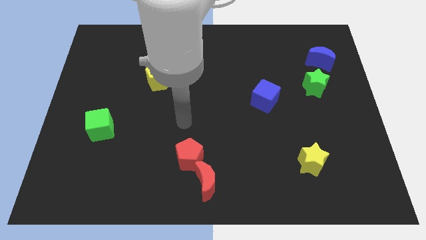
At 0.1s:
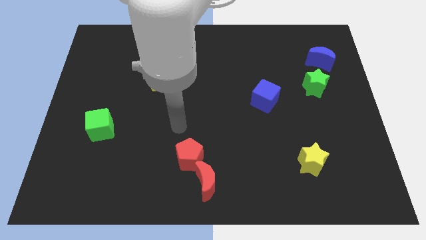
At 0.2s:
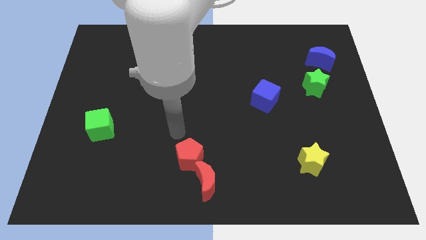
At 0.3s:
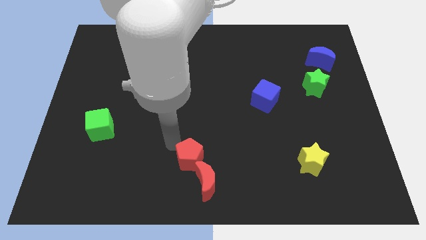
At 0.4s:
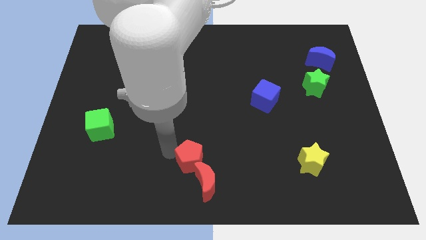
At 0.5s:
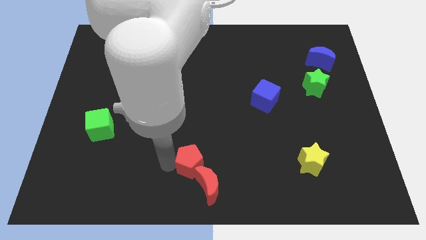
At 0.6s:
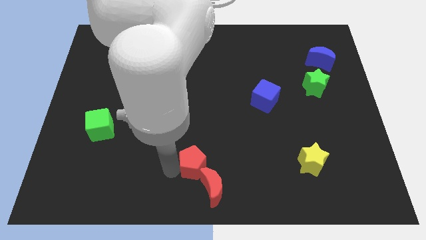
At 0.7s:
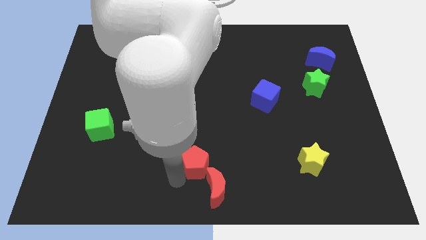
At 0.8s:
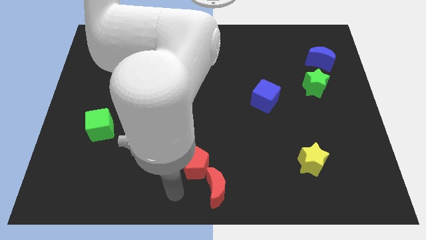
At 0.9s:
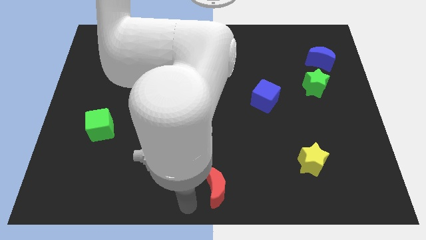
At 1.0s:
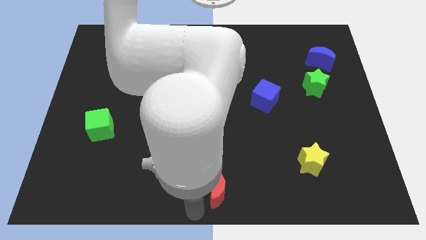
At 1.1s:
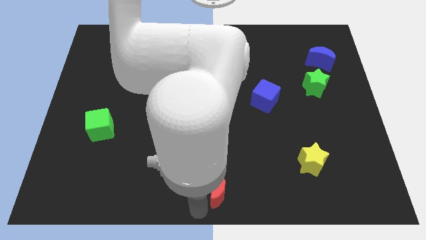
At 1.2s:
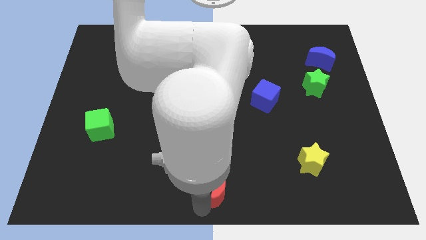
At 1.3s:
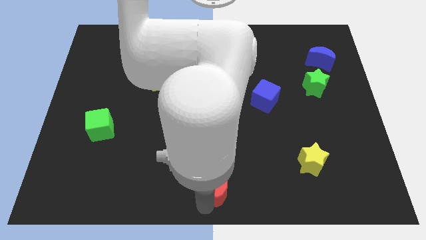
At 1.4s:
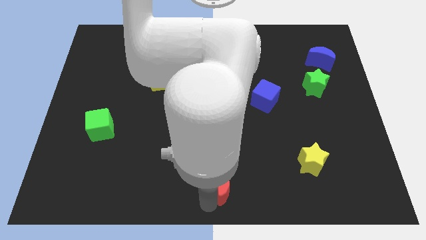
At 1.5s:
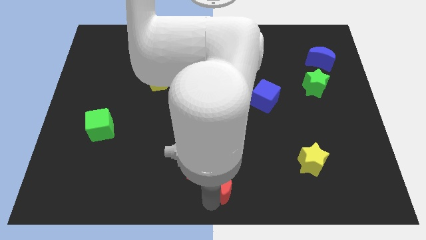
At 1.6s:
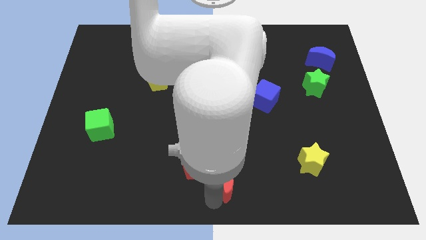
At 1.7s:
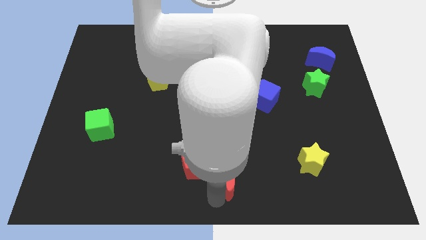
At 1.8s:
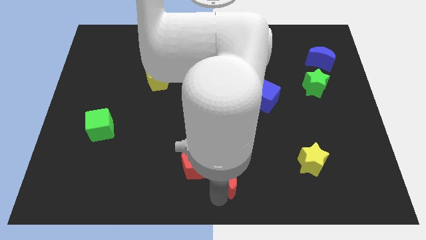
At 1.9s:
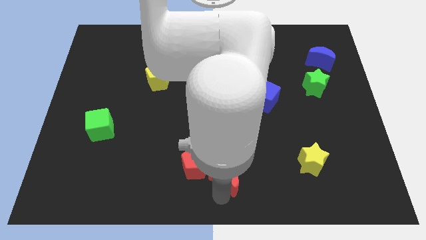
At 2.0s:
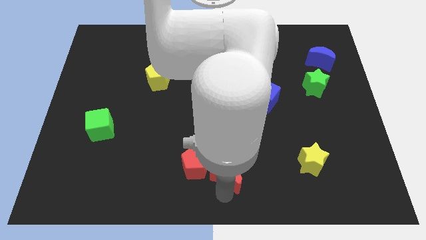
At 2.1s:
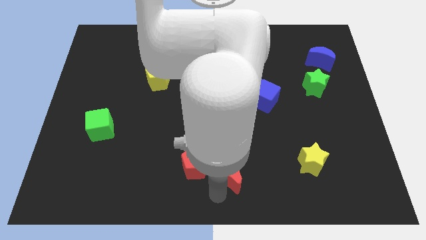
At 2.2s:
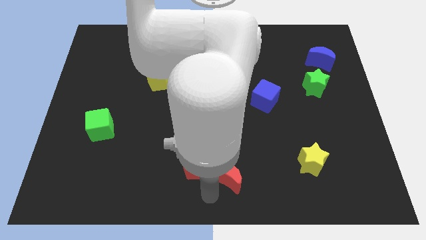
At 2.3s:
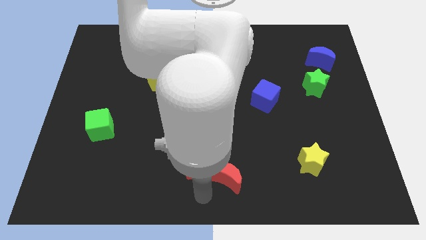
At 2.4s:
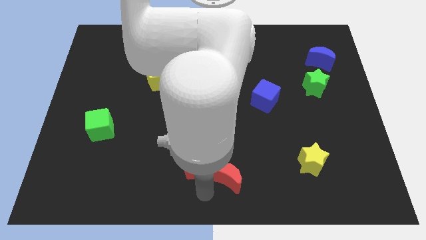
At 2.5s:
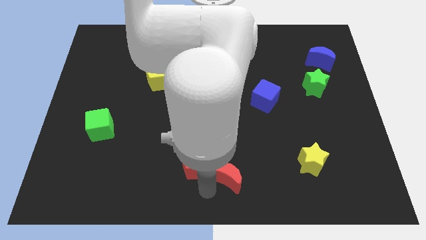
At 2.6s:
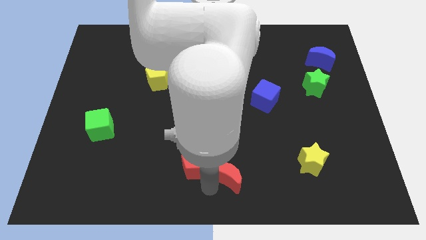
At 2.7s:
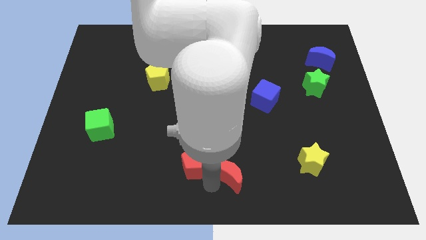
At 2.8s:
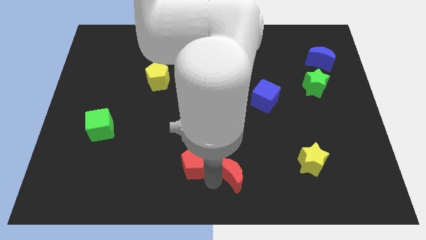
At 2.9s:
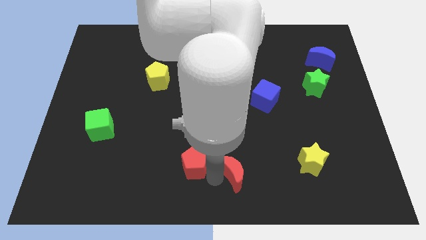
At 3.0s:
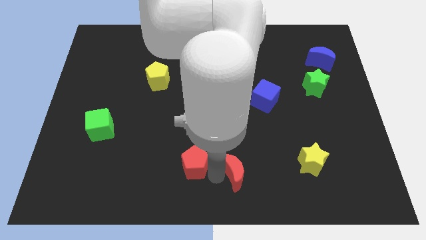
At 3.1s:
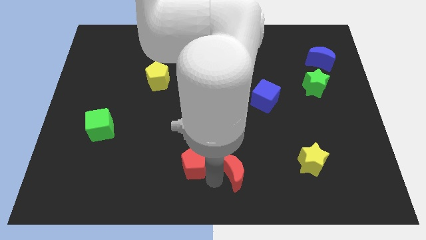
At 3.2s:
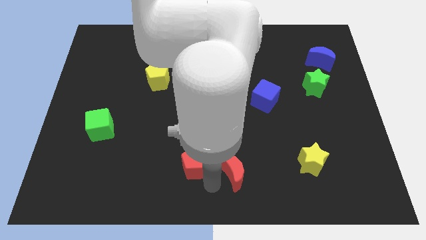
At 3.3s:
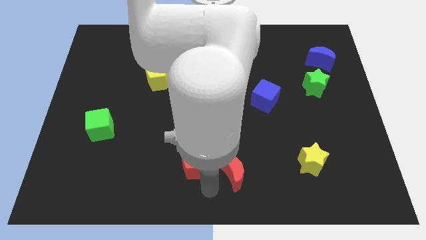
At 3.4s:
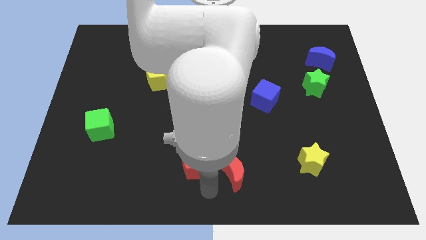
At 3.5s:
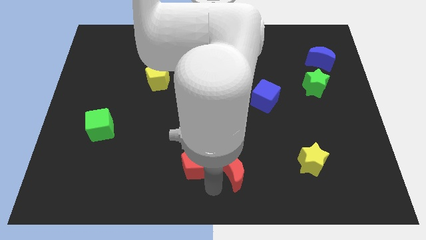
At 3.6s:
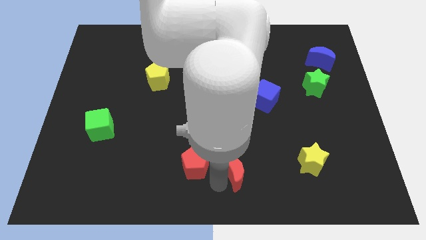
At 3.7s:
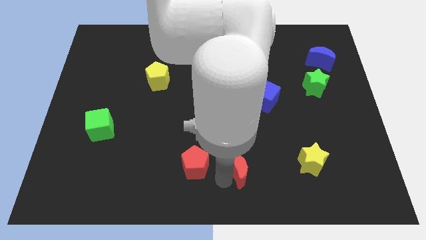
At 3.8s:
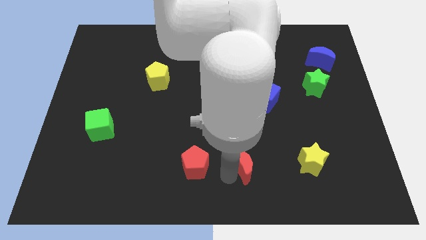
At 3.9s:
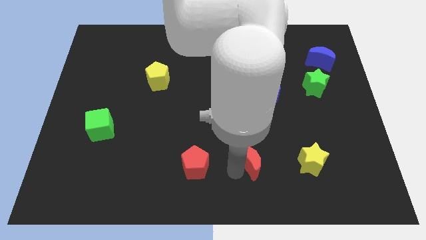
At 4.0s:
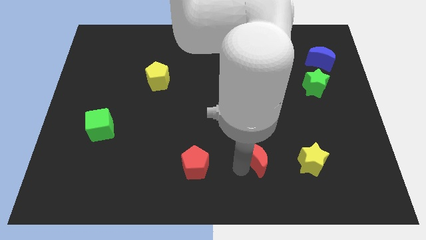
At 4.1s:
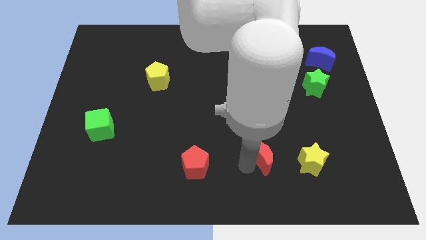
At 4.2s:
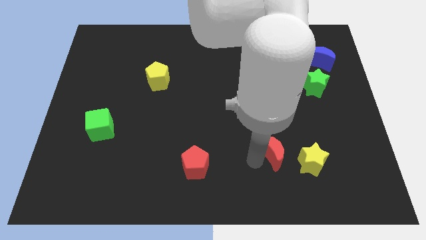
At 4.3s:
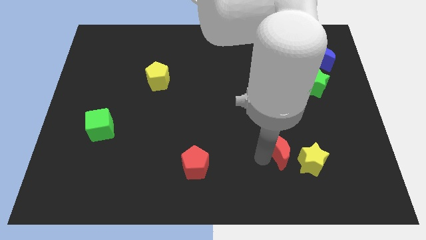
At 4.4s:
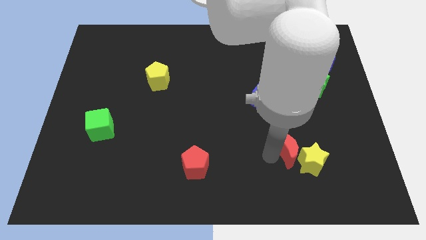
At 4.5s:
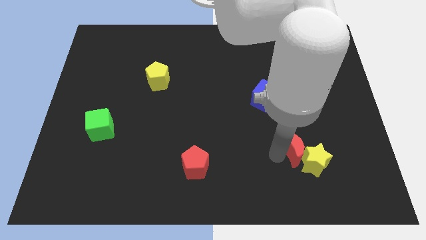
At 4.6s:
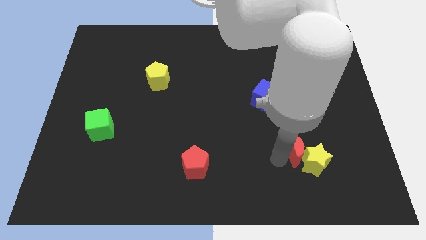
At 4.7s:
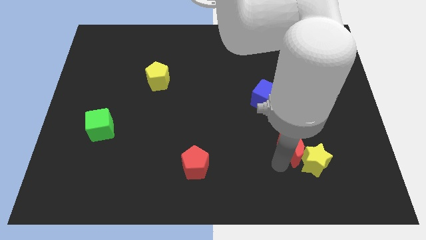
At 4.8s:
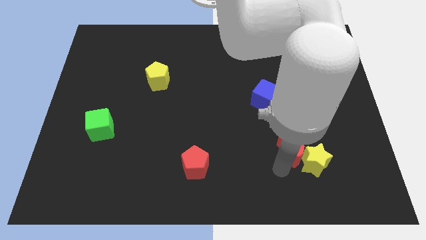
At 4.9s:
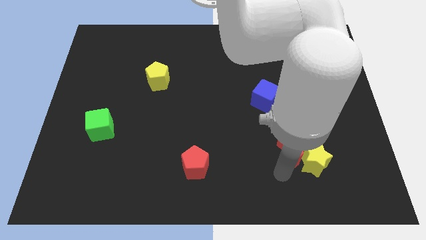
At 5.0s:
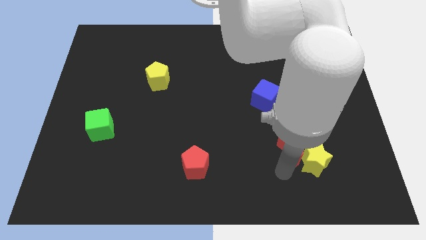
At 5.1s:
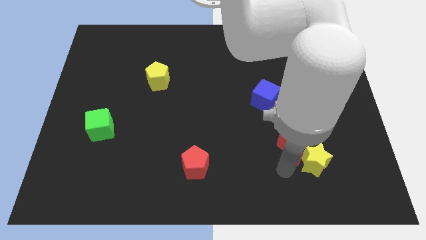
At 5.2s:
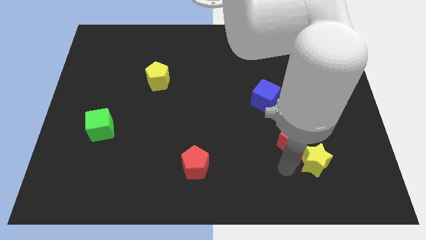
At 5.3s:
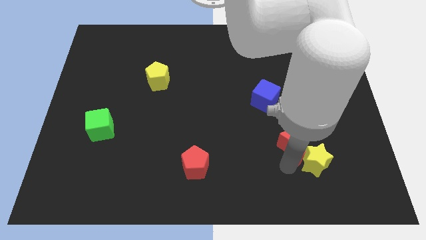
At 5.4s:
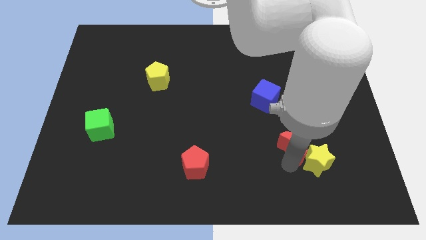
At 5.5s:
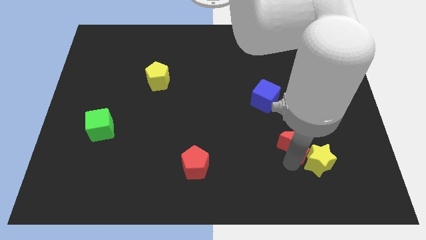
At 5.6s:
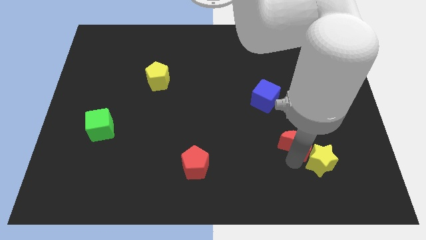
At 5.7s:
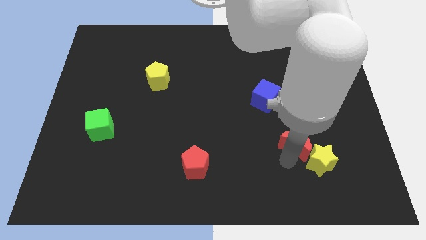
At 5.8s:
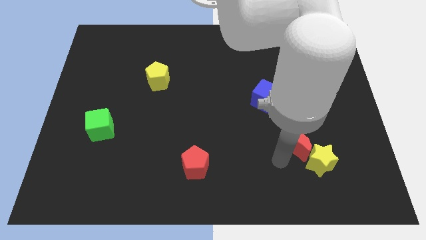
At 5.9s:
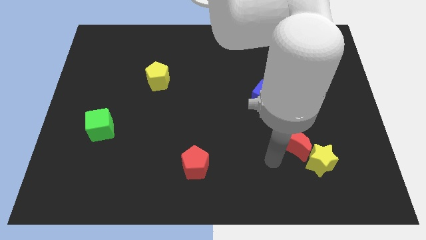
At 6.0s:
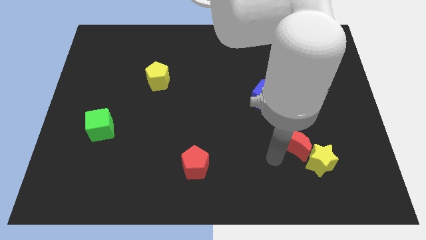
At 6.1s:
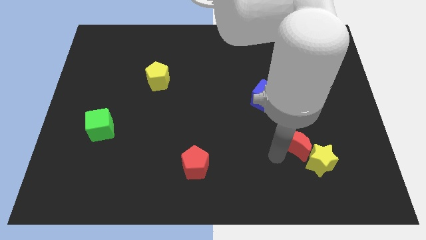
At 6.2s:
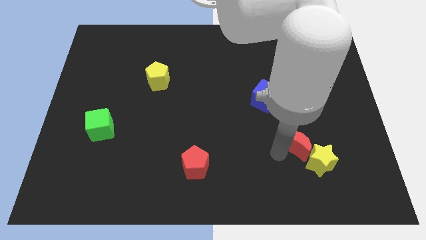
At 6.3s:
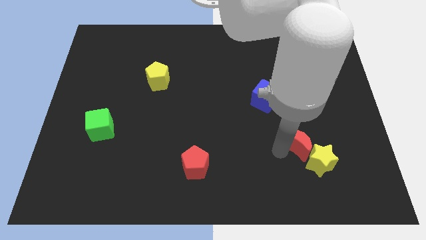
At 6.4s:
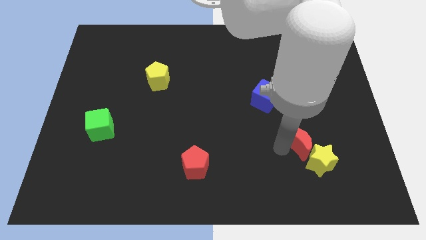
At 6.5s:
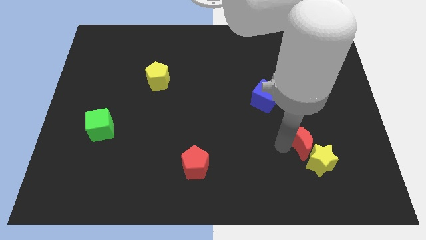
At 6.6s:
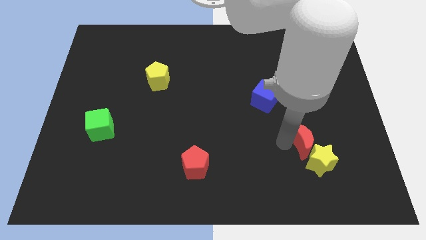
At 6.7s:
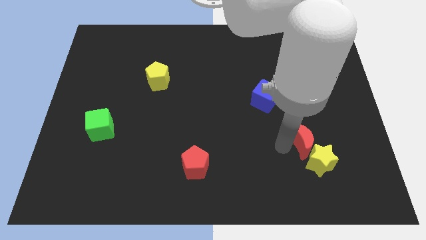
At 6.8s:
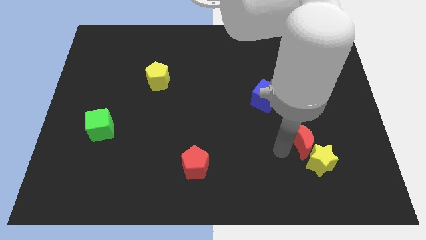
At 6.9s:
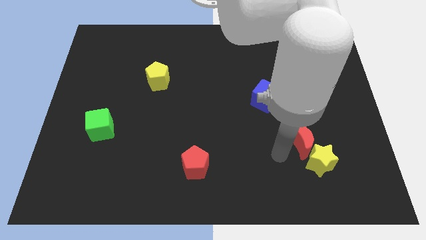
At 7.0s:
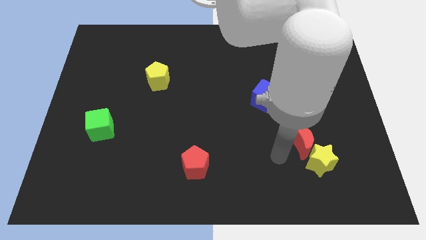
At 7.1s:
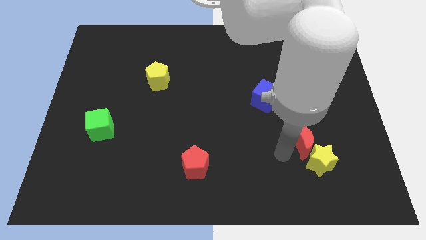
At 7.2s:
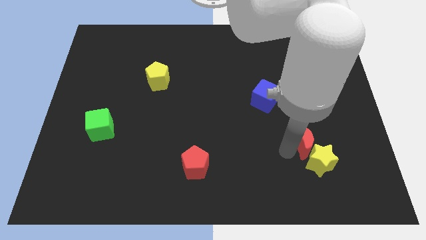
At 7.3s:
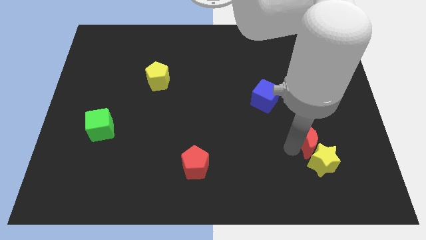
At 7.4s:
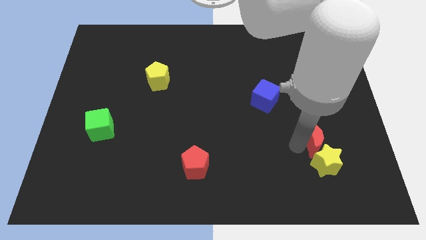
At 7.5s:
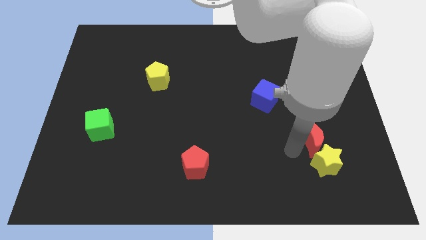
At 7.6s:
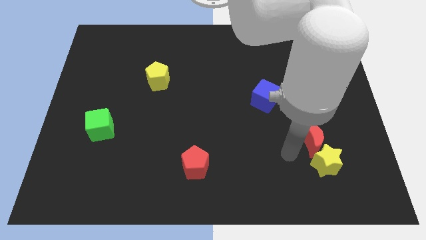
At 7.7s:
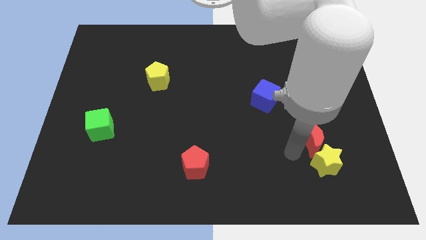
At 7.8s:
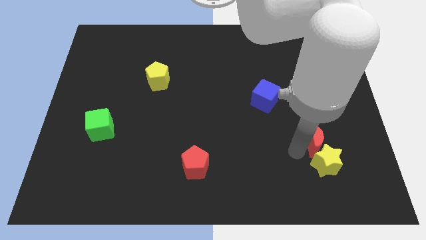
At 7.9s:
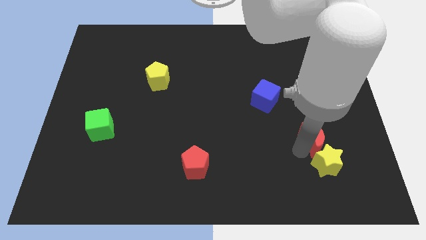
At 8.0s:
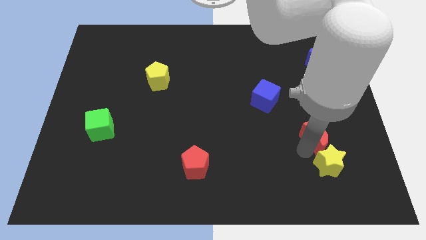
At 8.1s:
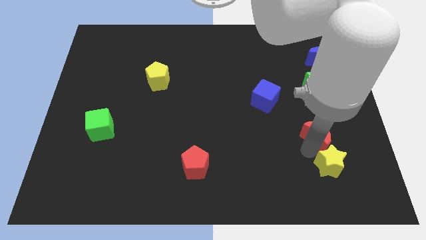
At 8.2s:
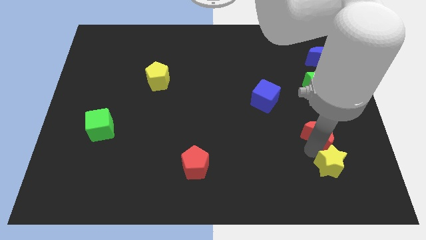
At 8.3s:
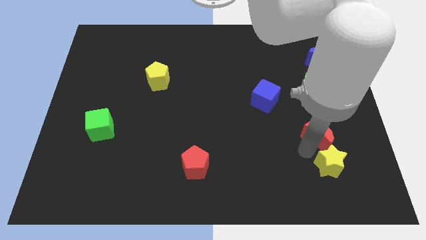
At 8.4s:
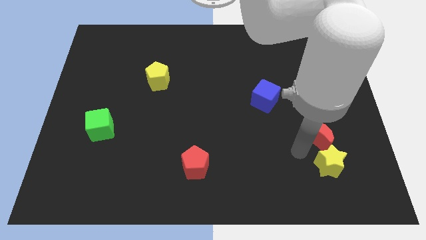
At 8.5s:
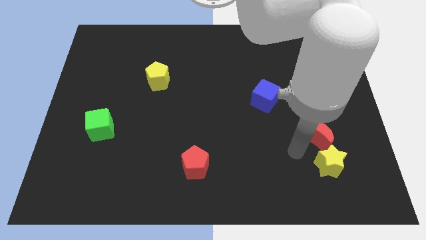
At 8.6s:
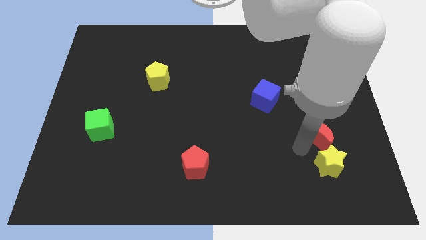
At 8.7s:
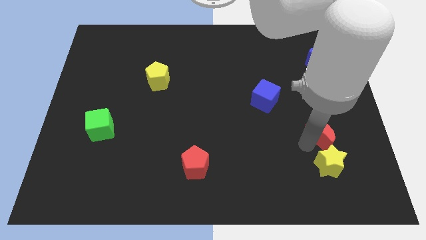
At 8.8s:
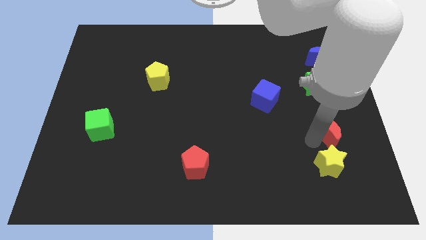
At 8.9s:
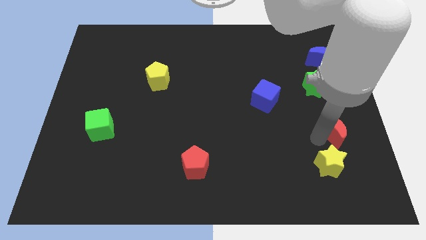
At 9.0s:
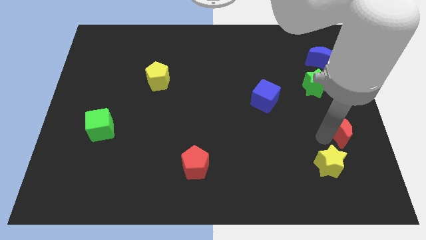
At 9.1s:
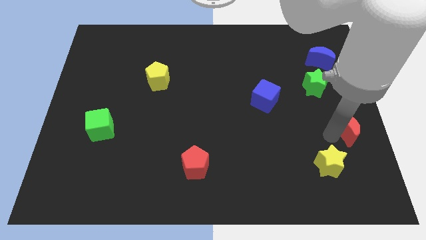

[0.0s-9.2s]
put the red moon to the right side
